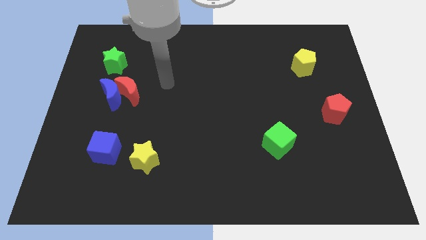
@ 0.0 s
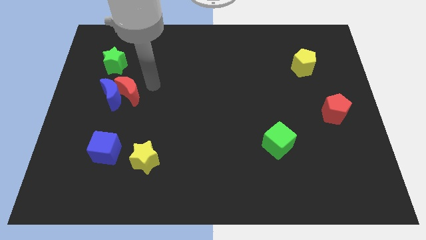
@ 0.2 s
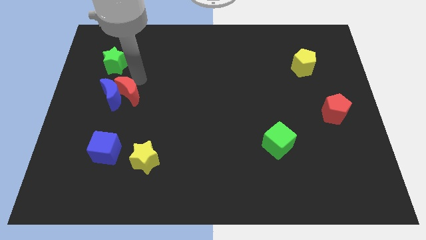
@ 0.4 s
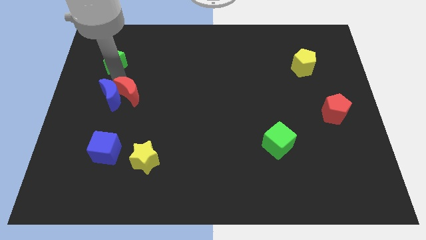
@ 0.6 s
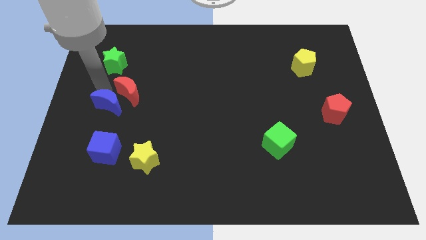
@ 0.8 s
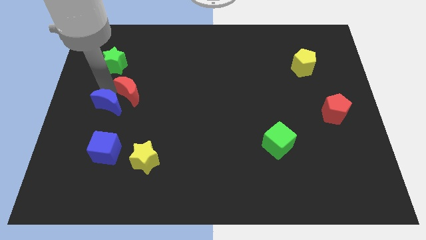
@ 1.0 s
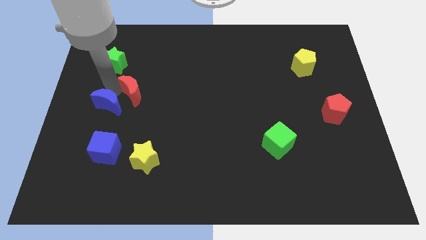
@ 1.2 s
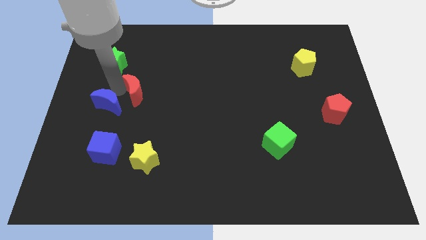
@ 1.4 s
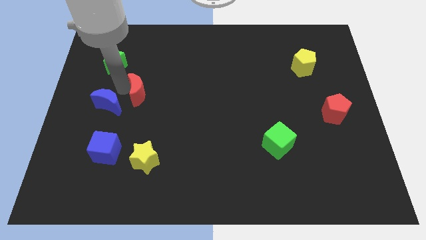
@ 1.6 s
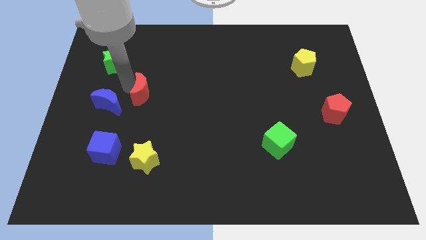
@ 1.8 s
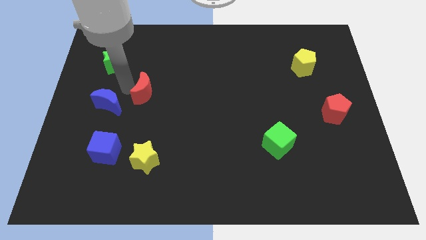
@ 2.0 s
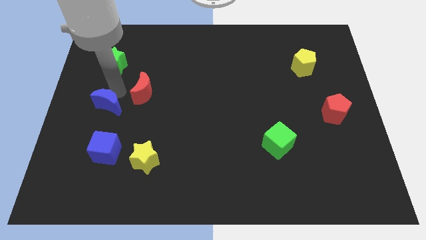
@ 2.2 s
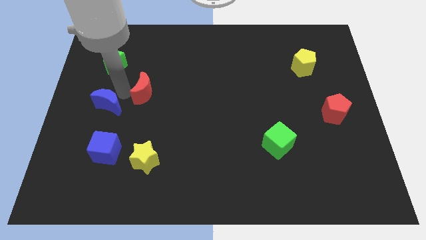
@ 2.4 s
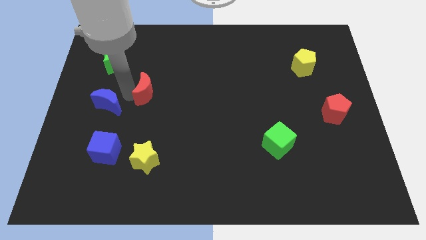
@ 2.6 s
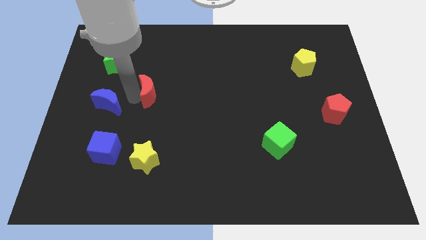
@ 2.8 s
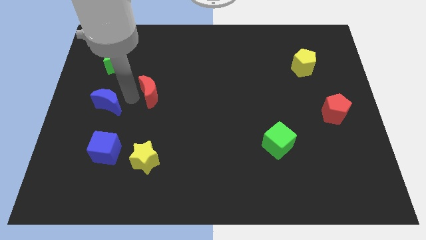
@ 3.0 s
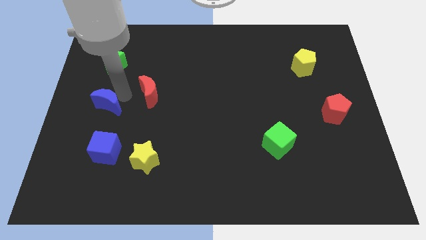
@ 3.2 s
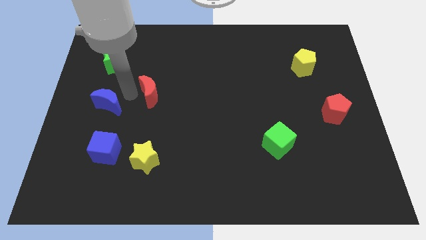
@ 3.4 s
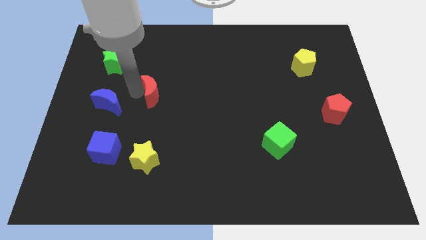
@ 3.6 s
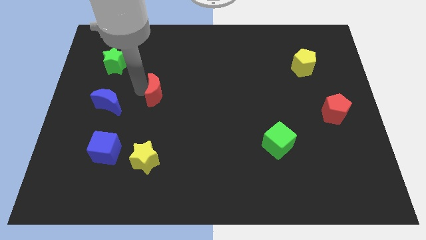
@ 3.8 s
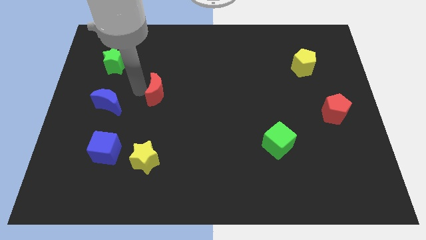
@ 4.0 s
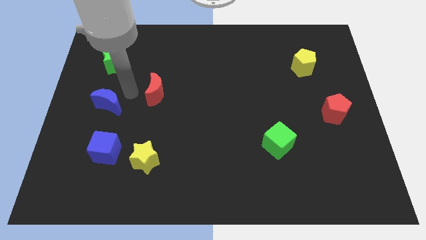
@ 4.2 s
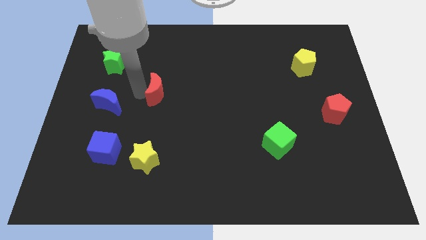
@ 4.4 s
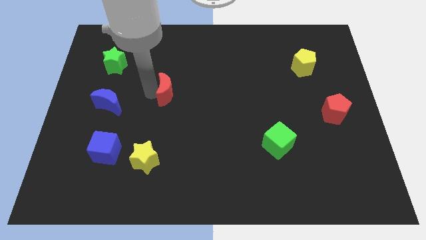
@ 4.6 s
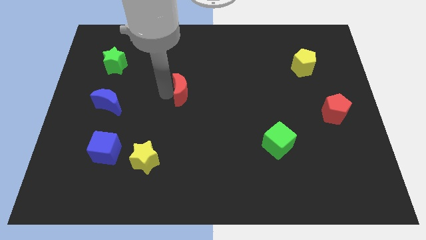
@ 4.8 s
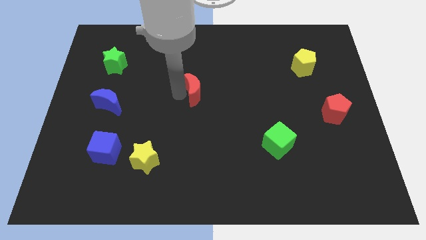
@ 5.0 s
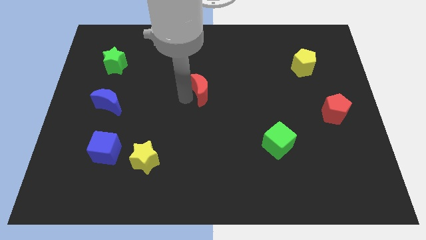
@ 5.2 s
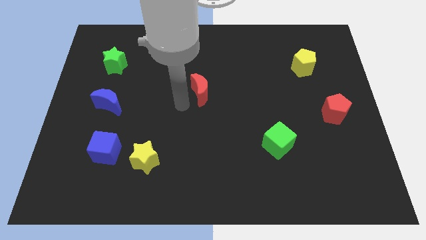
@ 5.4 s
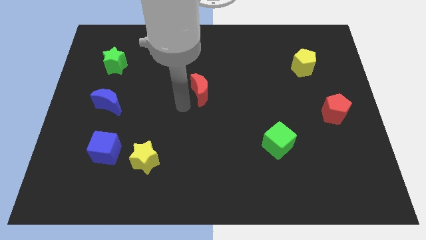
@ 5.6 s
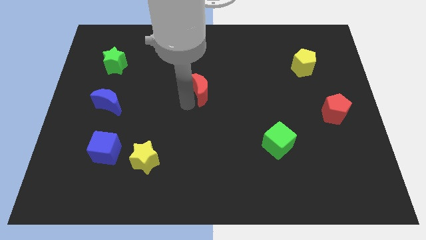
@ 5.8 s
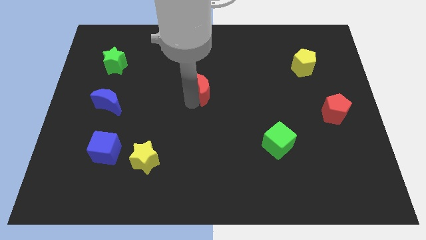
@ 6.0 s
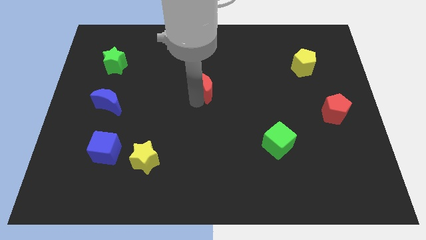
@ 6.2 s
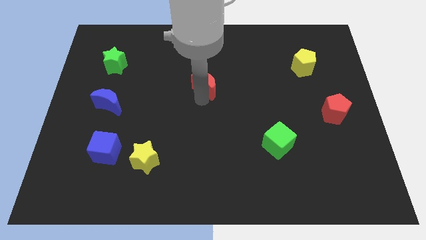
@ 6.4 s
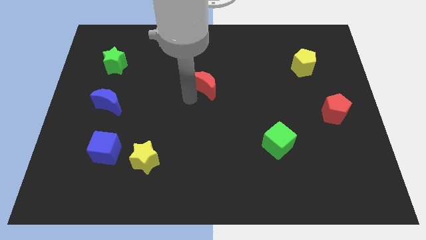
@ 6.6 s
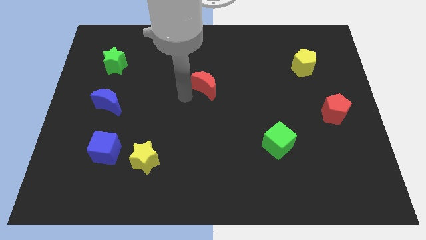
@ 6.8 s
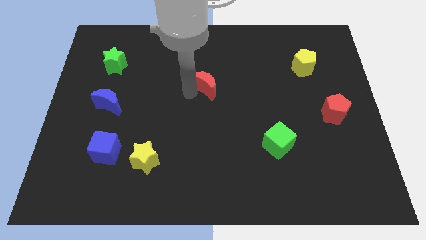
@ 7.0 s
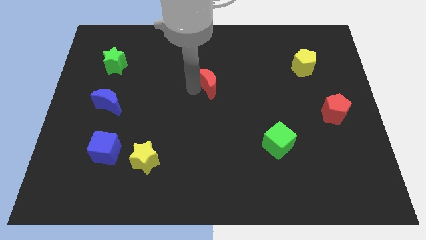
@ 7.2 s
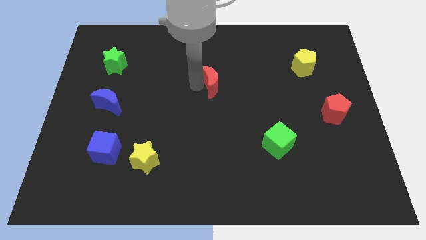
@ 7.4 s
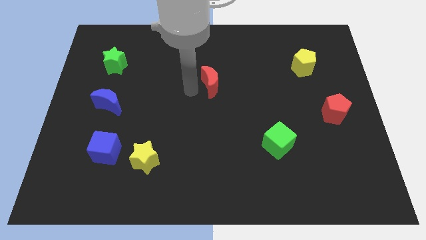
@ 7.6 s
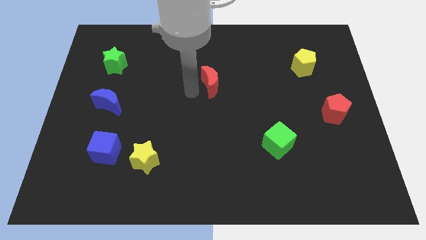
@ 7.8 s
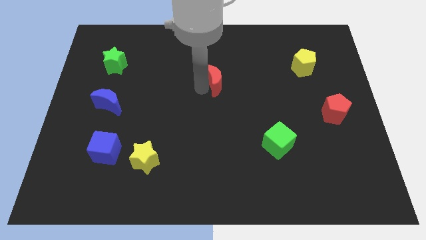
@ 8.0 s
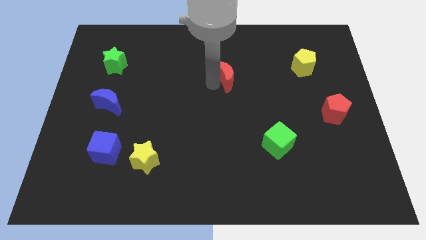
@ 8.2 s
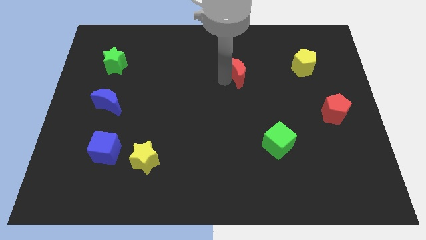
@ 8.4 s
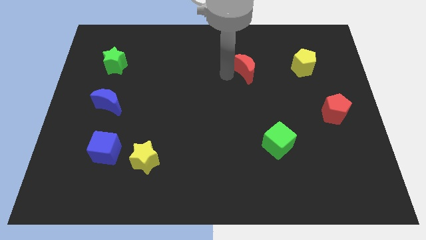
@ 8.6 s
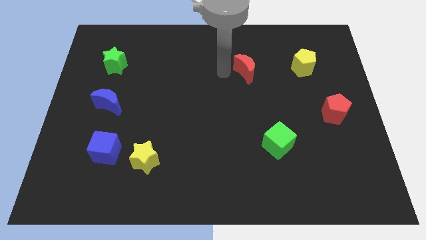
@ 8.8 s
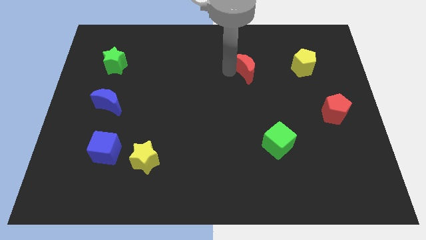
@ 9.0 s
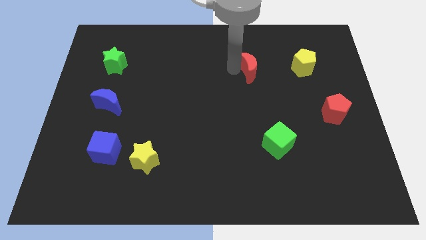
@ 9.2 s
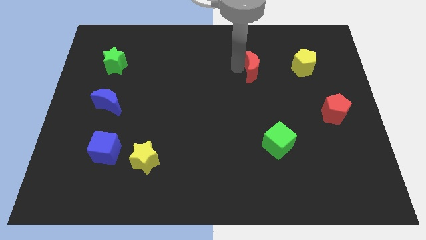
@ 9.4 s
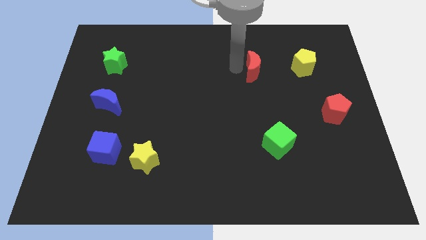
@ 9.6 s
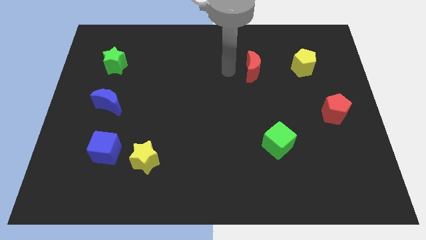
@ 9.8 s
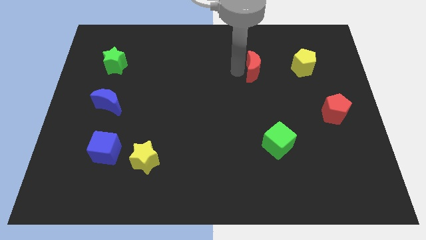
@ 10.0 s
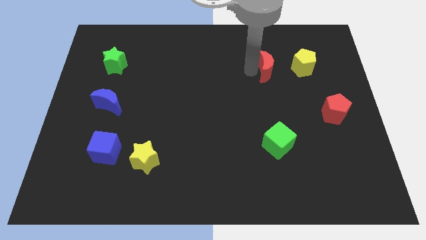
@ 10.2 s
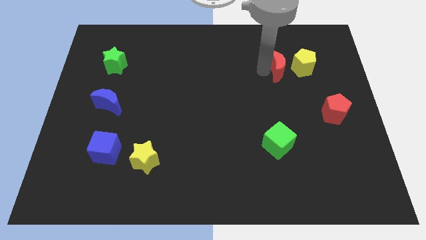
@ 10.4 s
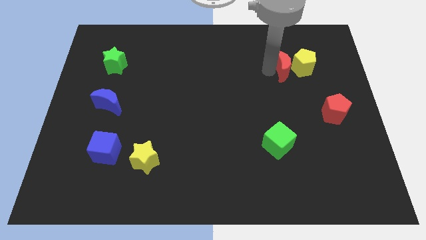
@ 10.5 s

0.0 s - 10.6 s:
slide the red moon to the yellow pentagon
